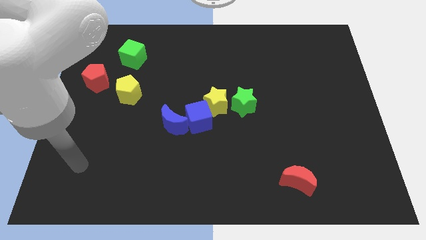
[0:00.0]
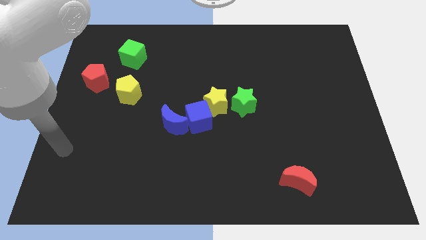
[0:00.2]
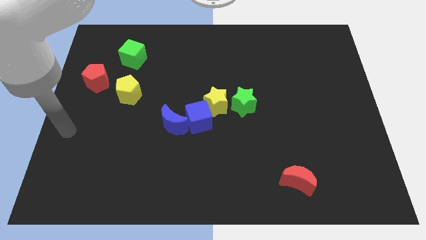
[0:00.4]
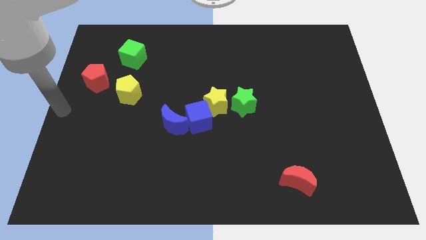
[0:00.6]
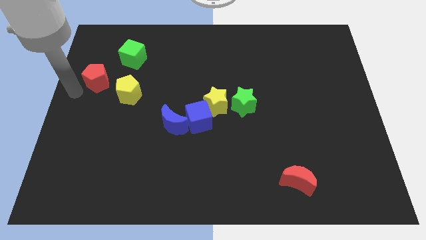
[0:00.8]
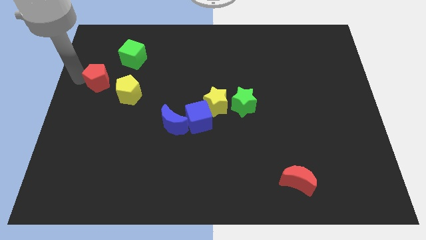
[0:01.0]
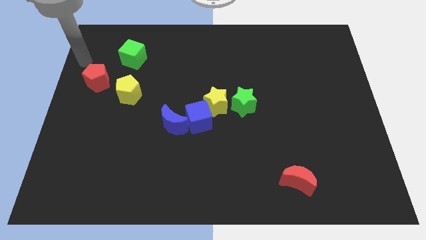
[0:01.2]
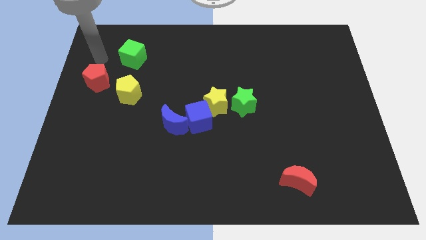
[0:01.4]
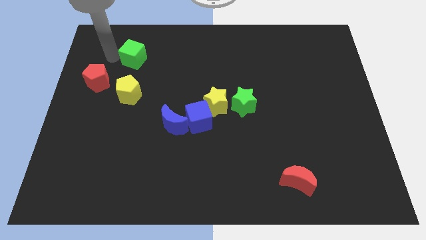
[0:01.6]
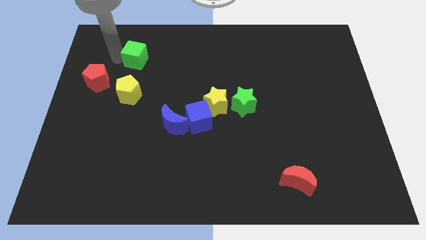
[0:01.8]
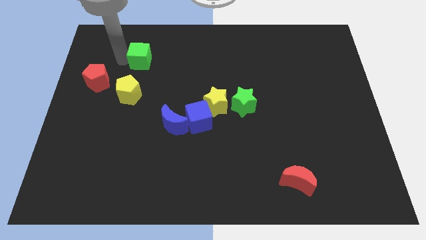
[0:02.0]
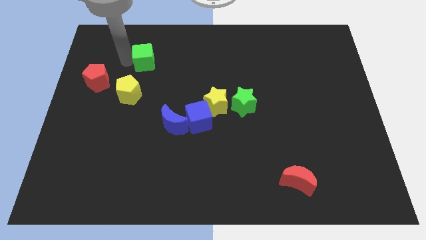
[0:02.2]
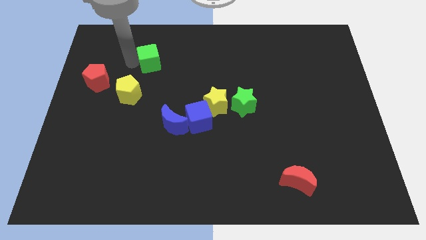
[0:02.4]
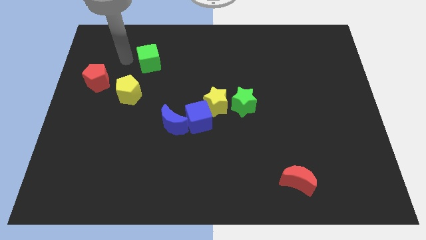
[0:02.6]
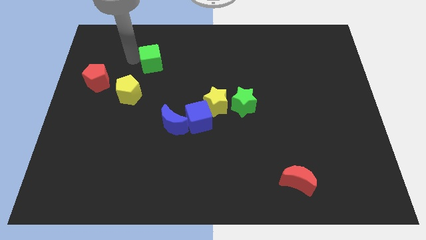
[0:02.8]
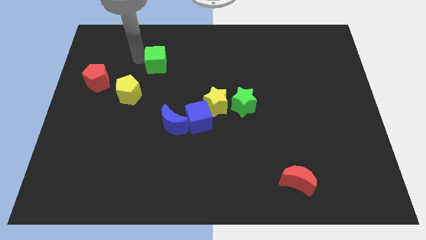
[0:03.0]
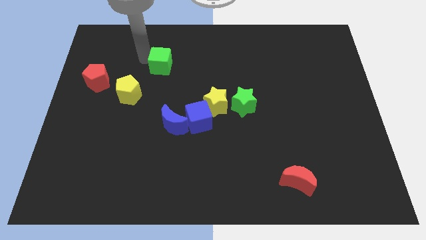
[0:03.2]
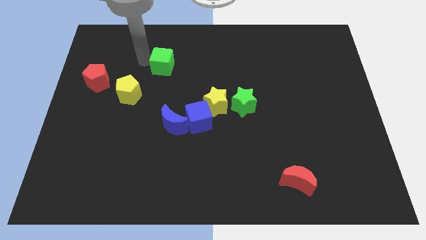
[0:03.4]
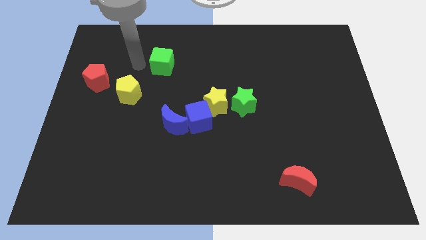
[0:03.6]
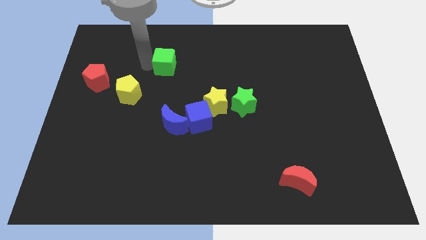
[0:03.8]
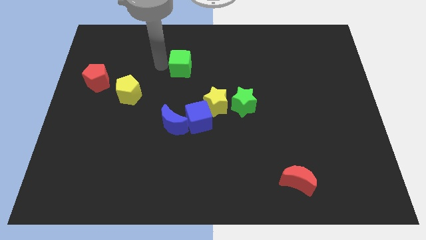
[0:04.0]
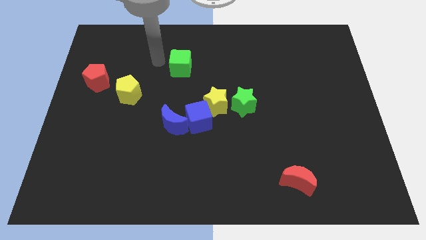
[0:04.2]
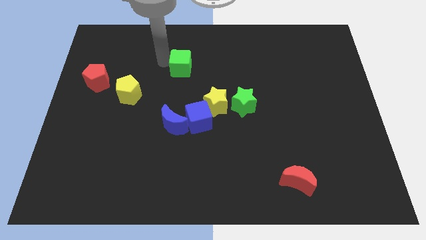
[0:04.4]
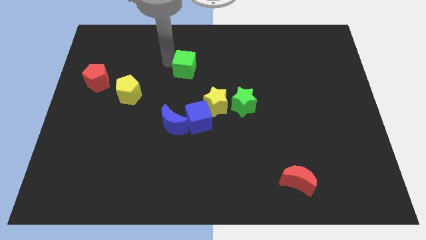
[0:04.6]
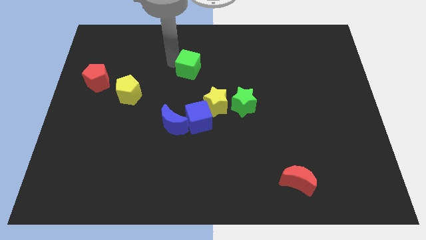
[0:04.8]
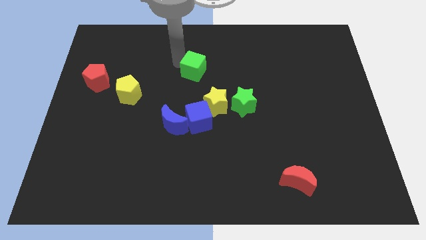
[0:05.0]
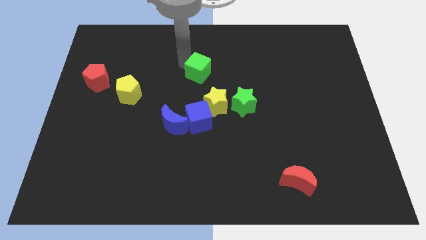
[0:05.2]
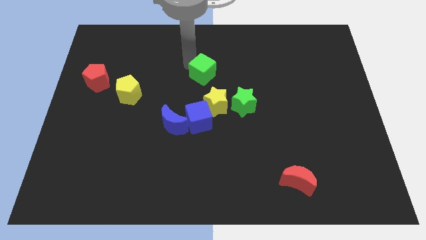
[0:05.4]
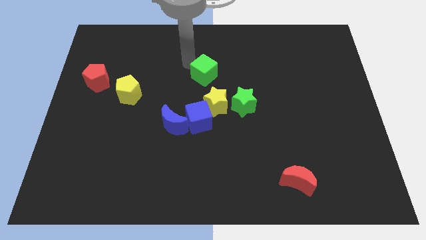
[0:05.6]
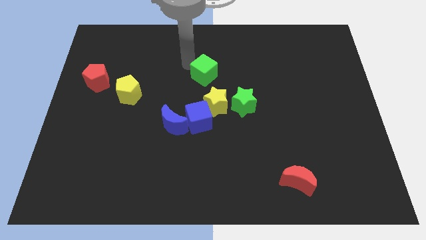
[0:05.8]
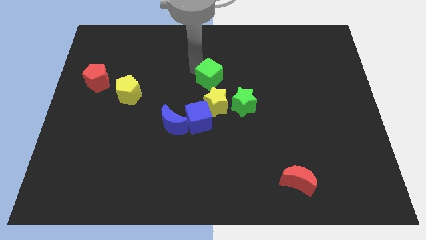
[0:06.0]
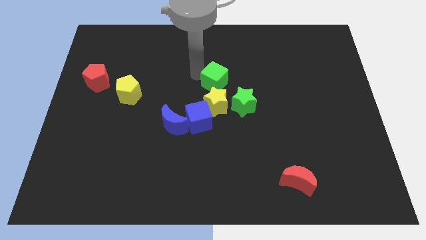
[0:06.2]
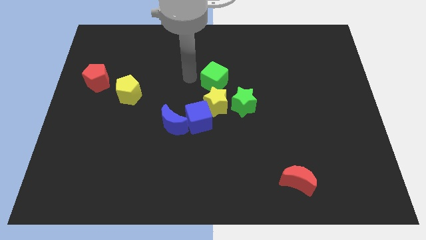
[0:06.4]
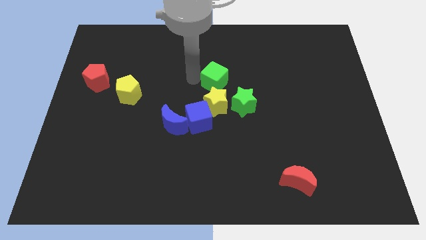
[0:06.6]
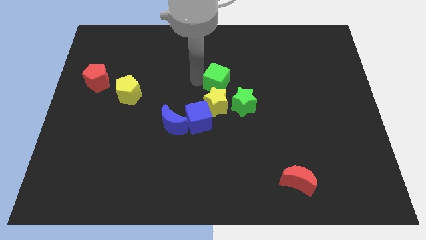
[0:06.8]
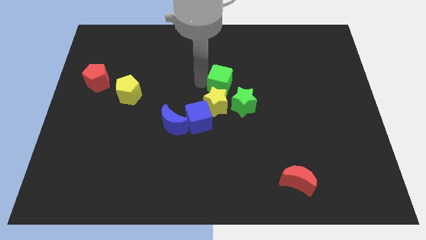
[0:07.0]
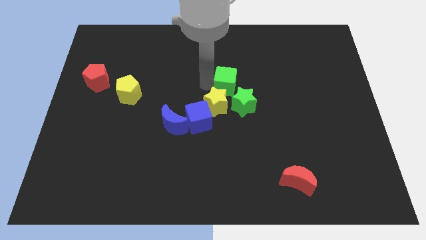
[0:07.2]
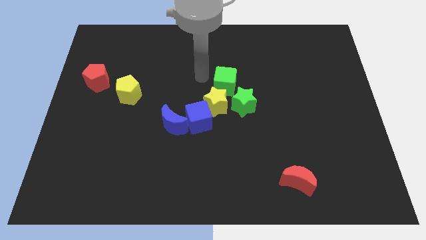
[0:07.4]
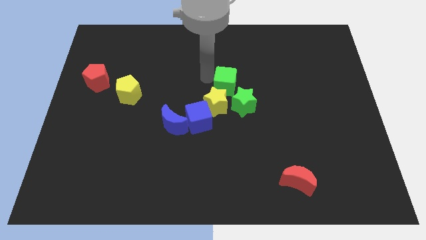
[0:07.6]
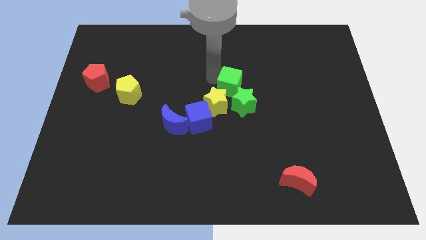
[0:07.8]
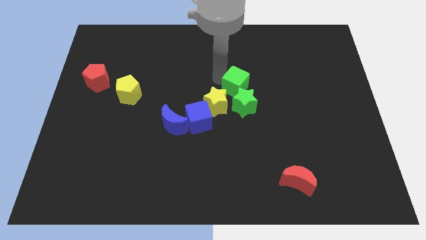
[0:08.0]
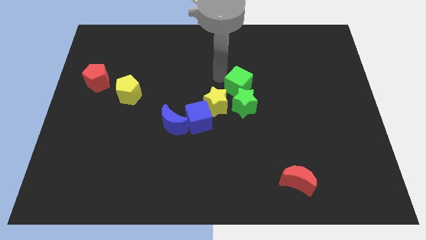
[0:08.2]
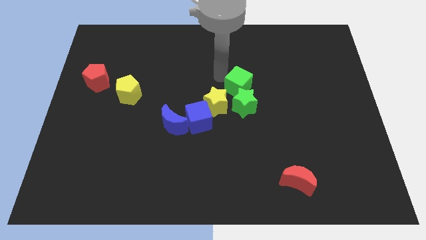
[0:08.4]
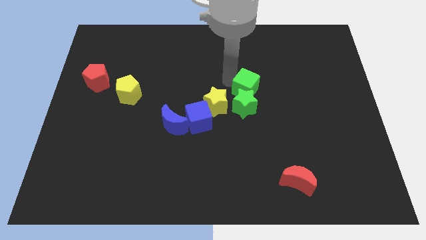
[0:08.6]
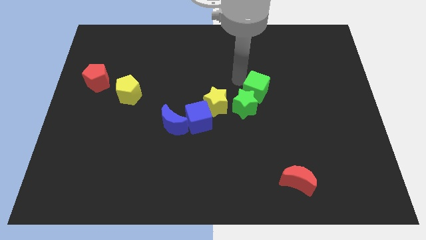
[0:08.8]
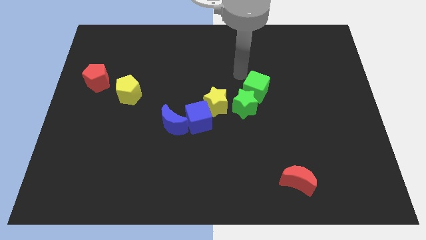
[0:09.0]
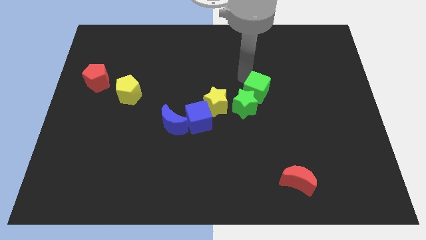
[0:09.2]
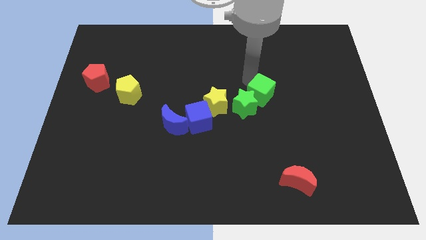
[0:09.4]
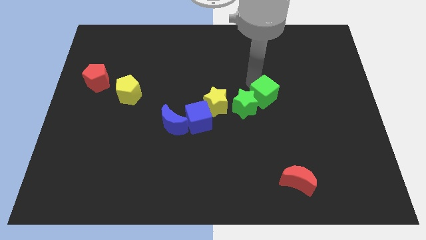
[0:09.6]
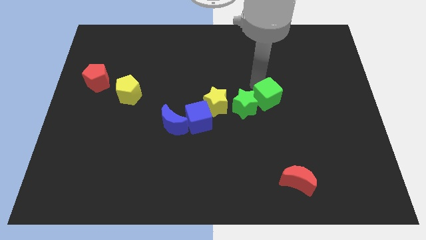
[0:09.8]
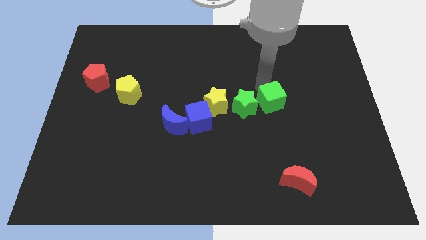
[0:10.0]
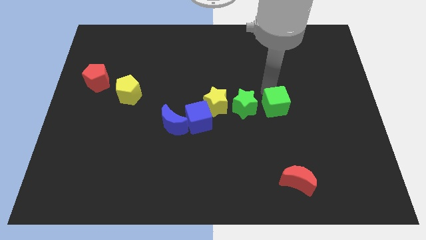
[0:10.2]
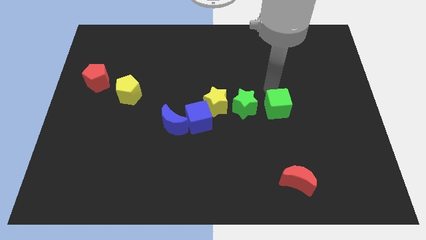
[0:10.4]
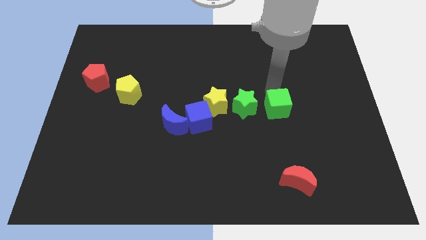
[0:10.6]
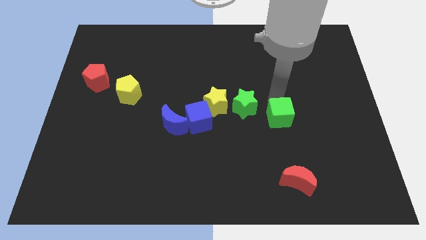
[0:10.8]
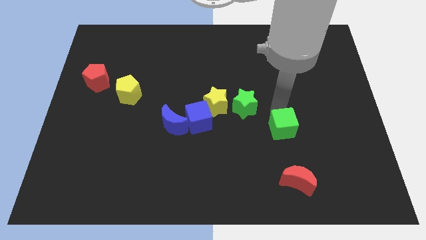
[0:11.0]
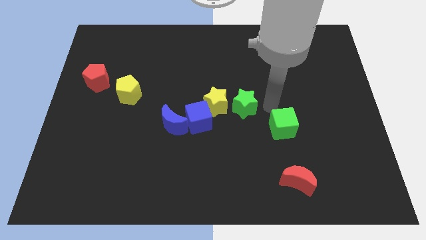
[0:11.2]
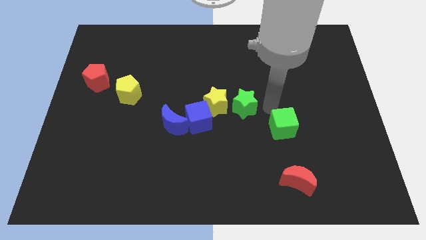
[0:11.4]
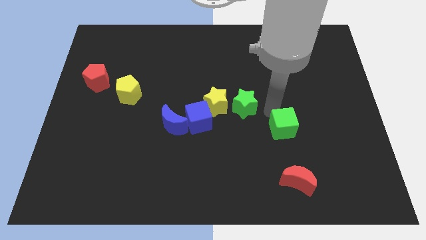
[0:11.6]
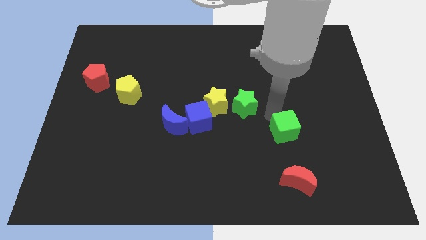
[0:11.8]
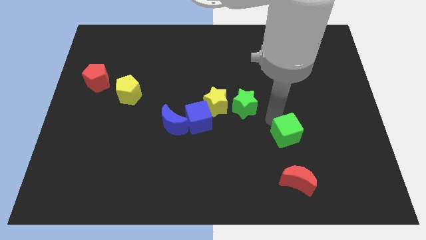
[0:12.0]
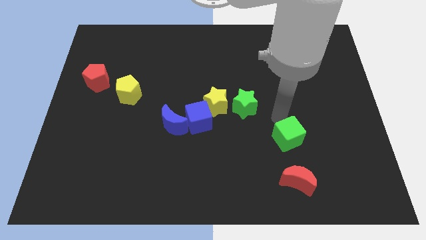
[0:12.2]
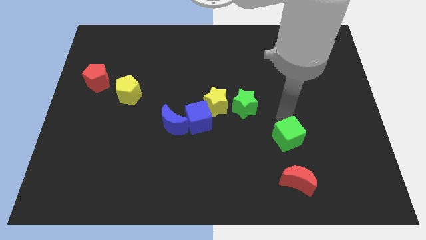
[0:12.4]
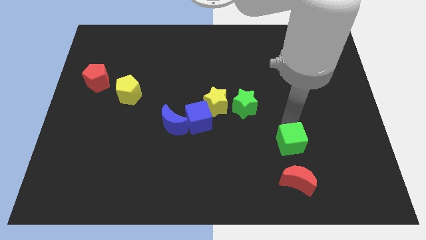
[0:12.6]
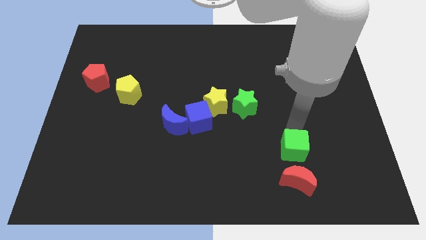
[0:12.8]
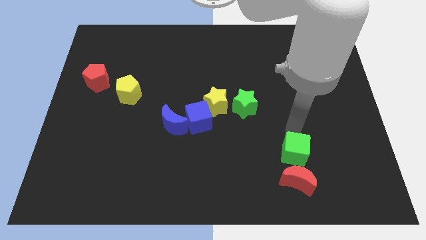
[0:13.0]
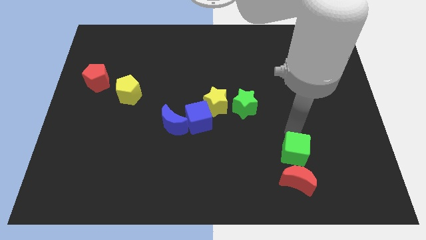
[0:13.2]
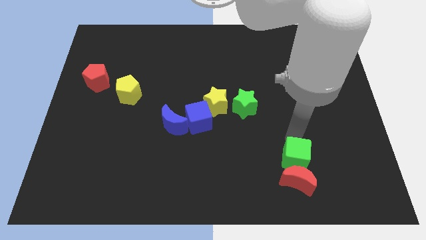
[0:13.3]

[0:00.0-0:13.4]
push the green cube next to the red moon
